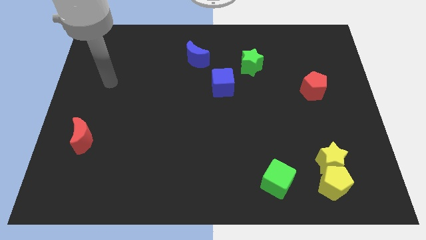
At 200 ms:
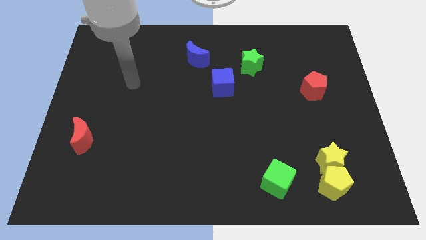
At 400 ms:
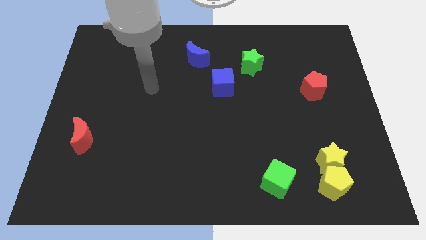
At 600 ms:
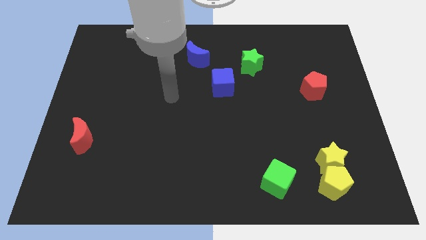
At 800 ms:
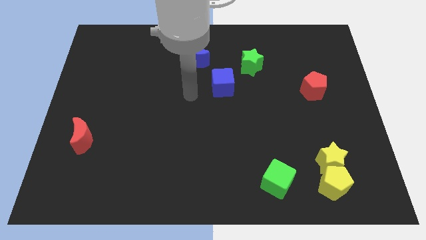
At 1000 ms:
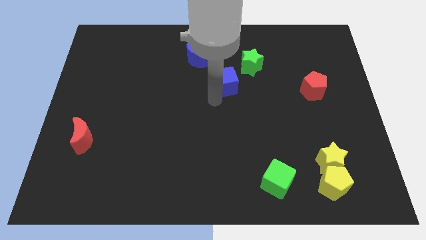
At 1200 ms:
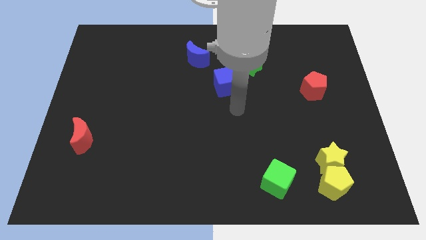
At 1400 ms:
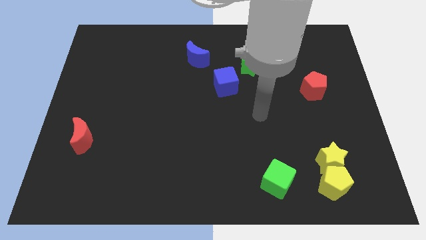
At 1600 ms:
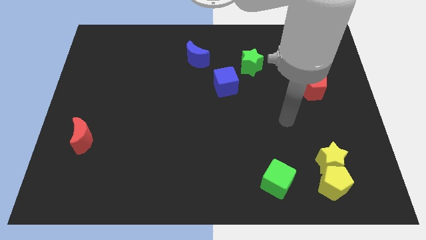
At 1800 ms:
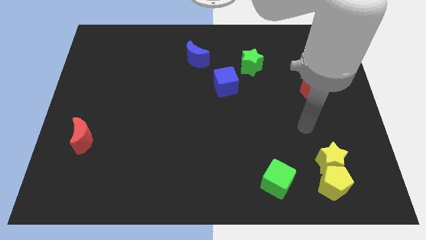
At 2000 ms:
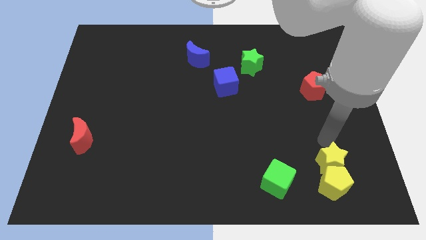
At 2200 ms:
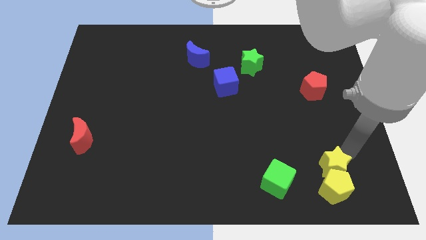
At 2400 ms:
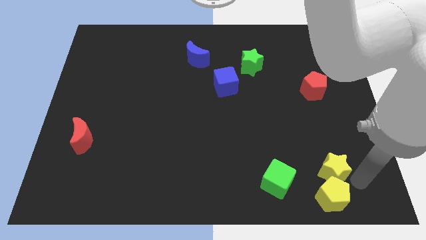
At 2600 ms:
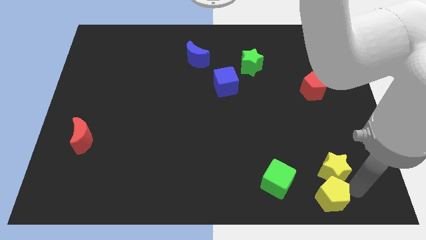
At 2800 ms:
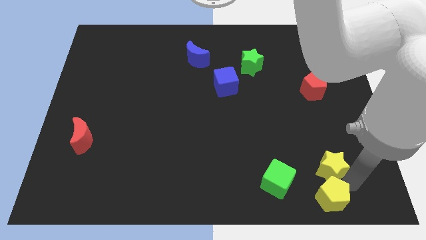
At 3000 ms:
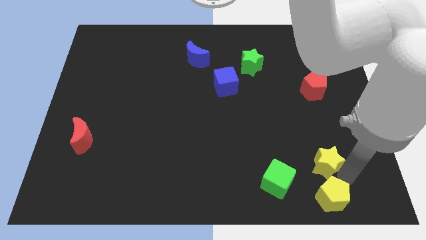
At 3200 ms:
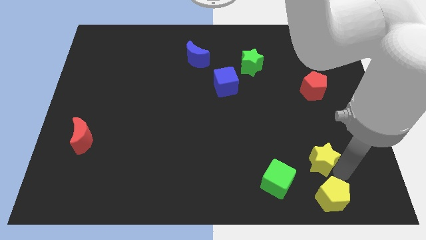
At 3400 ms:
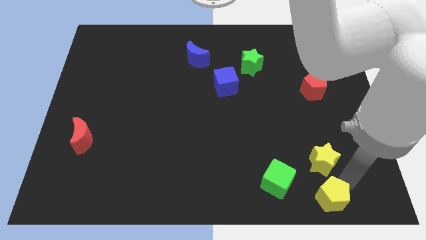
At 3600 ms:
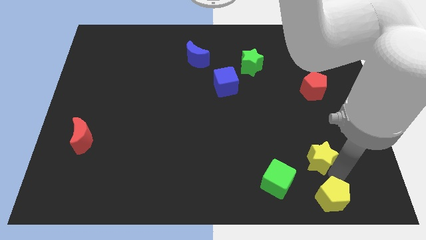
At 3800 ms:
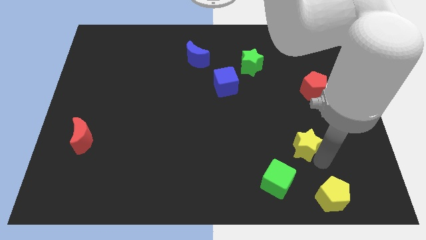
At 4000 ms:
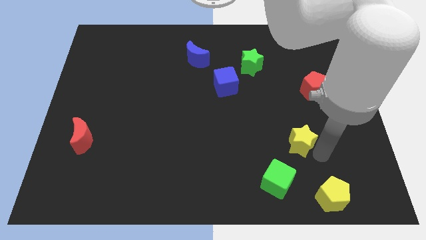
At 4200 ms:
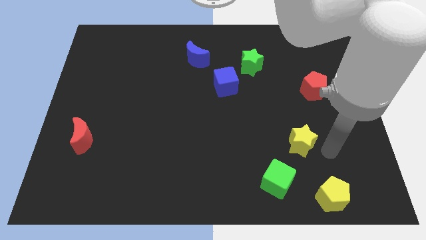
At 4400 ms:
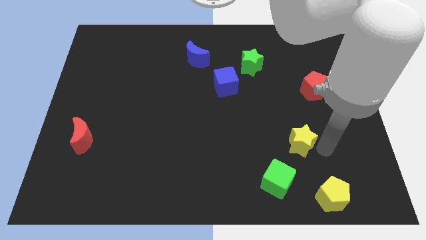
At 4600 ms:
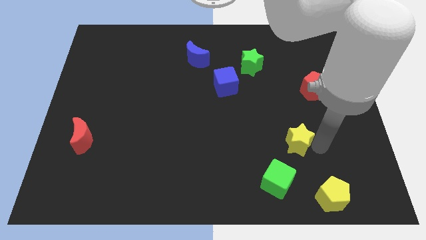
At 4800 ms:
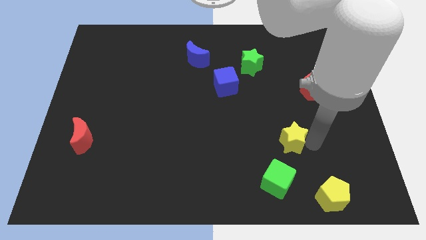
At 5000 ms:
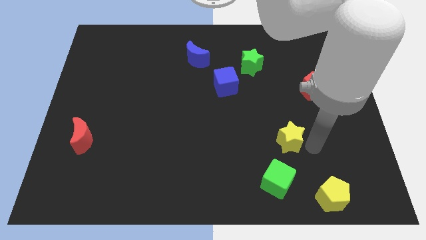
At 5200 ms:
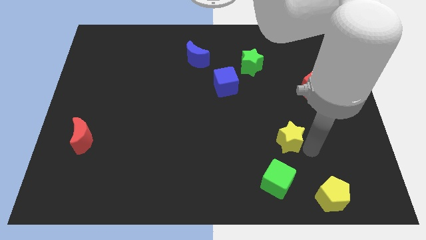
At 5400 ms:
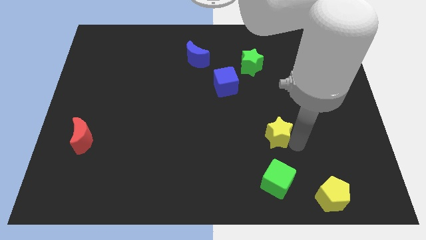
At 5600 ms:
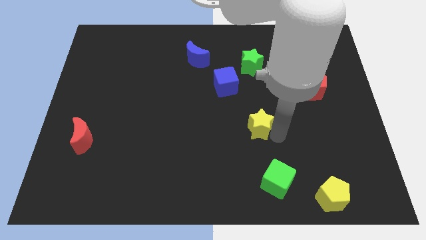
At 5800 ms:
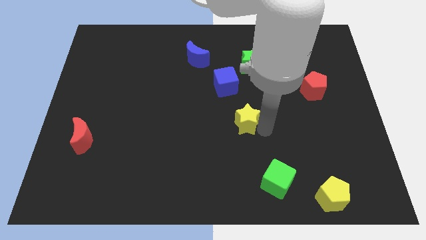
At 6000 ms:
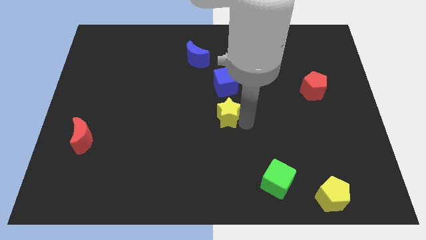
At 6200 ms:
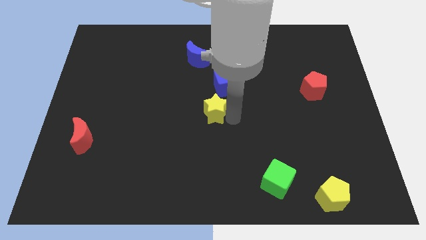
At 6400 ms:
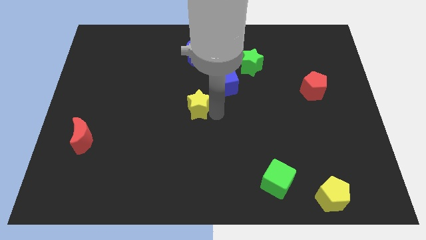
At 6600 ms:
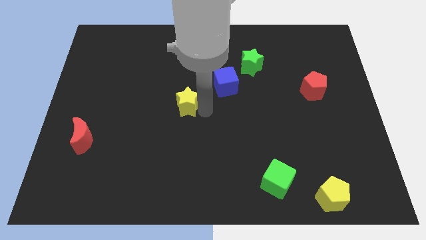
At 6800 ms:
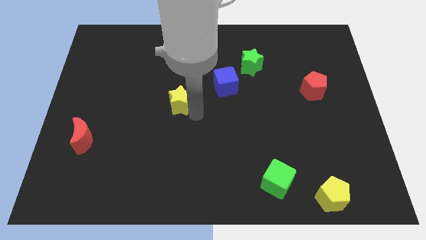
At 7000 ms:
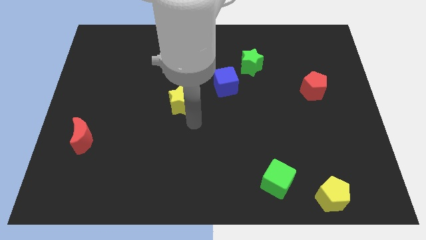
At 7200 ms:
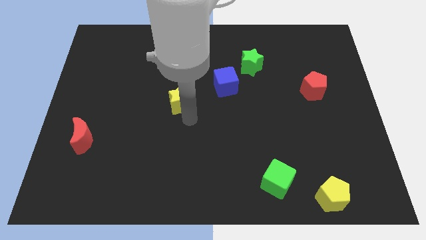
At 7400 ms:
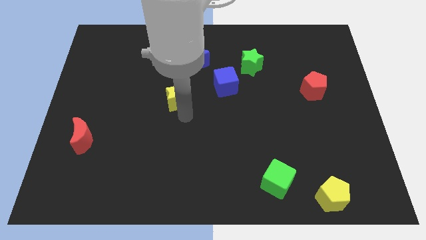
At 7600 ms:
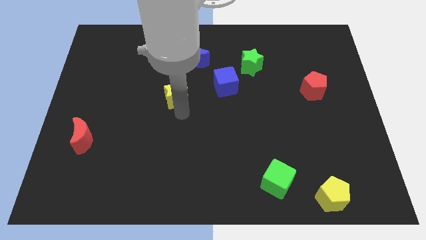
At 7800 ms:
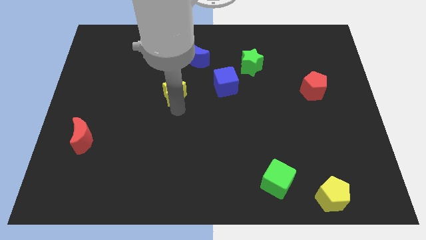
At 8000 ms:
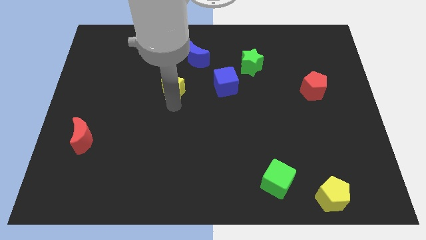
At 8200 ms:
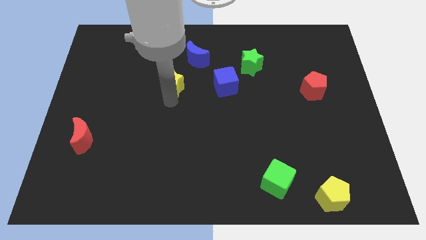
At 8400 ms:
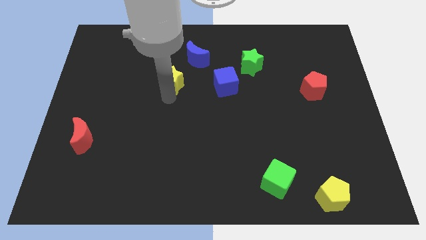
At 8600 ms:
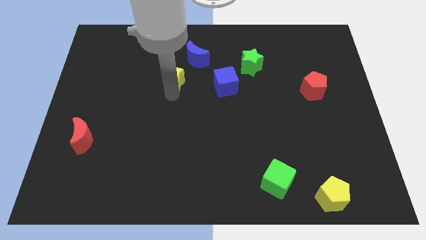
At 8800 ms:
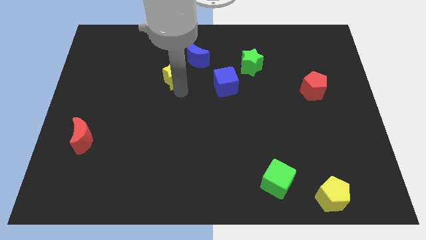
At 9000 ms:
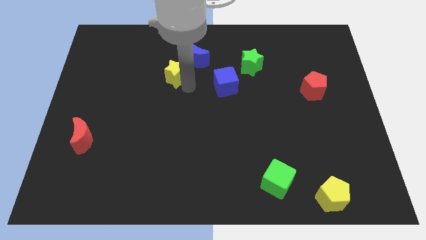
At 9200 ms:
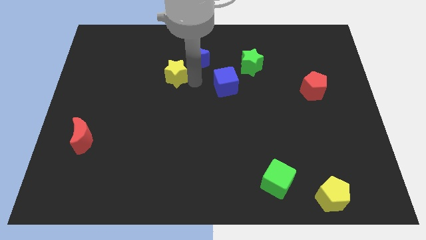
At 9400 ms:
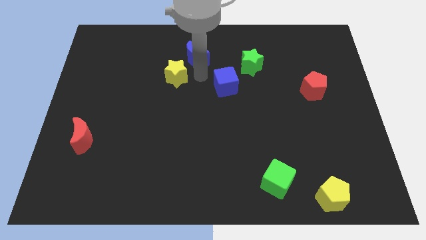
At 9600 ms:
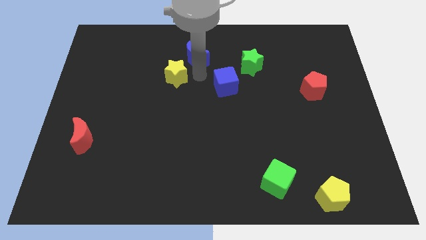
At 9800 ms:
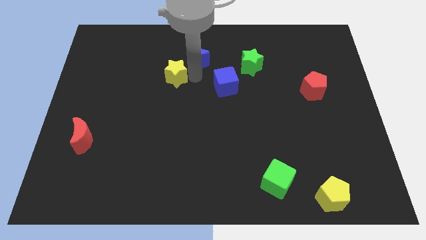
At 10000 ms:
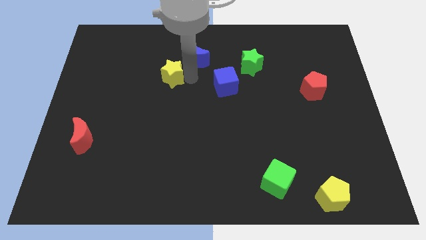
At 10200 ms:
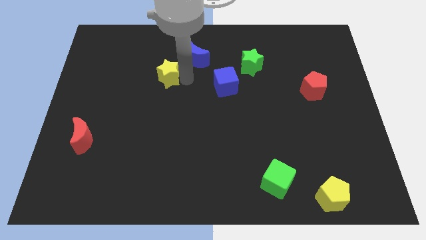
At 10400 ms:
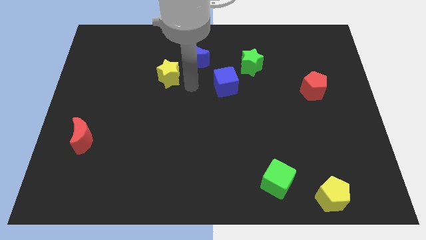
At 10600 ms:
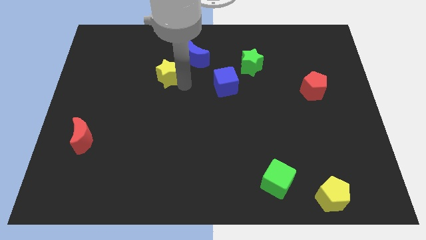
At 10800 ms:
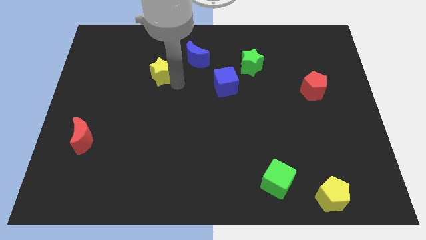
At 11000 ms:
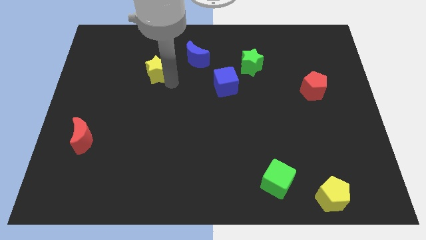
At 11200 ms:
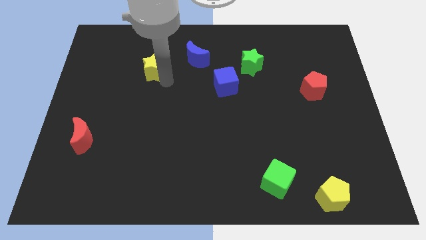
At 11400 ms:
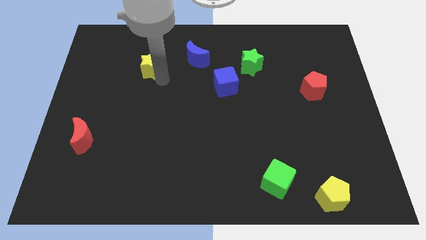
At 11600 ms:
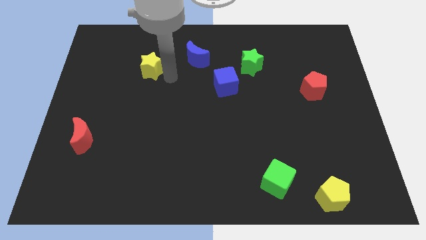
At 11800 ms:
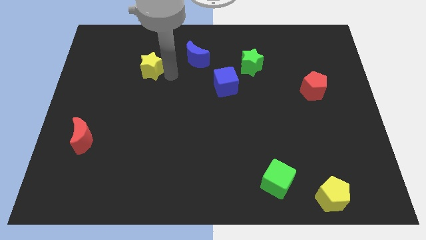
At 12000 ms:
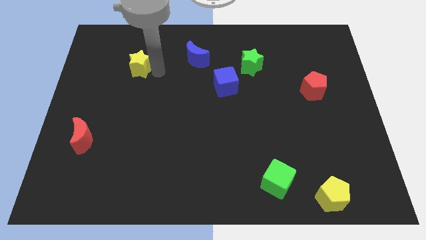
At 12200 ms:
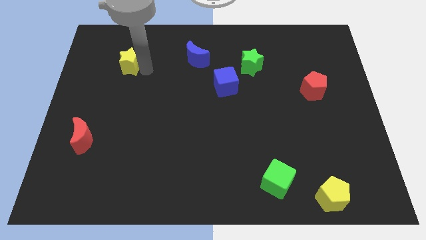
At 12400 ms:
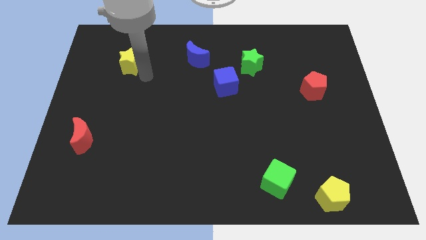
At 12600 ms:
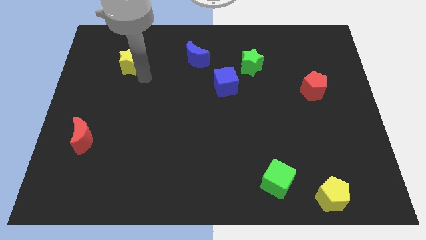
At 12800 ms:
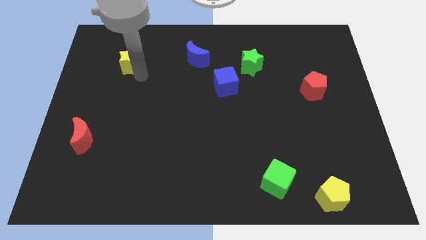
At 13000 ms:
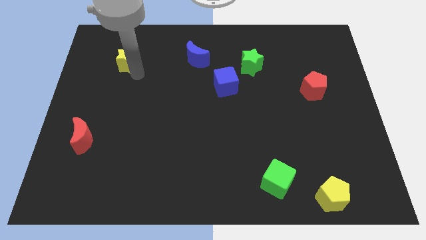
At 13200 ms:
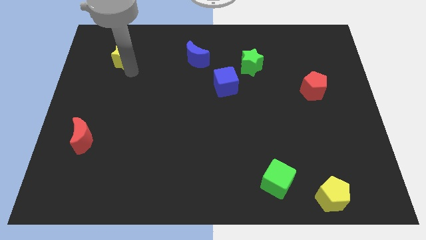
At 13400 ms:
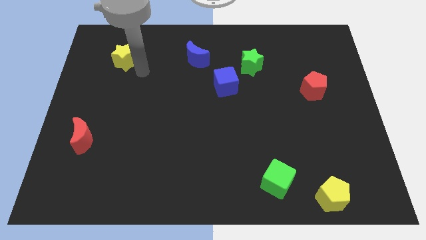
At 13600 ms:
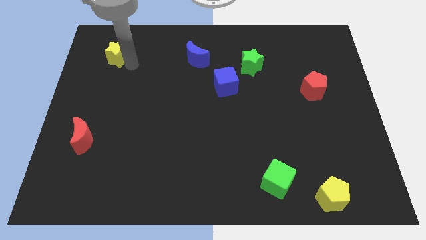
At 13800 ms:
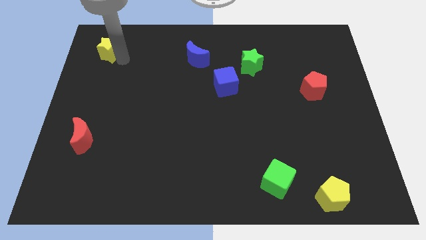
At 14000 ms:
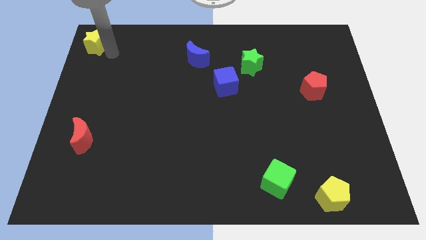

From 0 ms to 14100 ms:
move the yellow star to the top left
